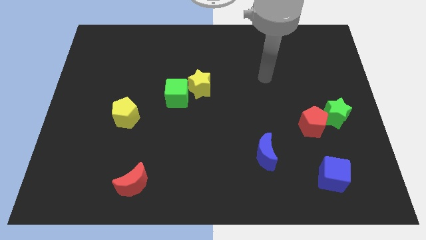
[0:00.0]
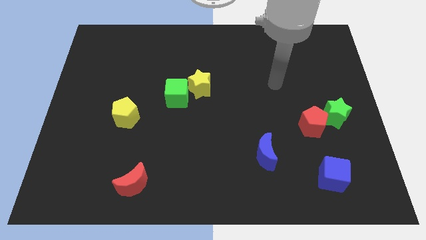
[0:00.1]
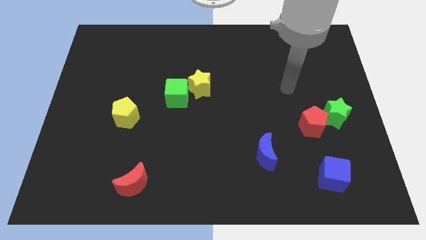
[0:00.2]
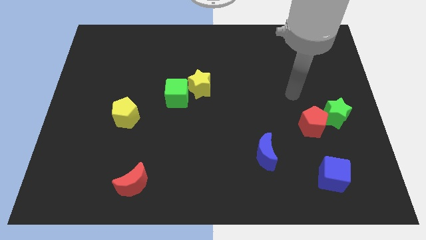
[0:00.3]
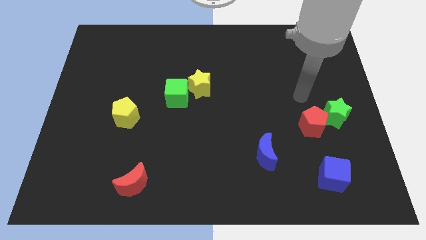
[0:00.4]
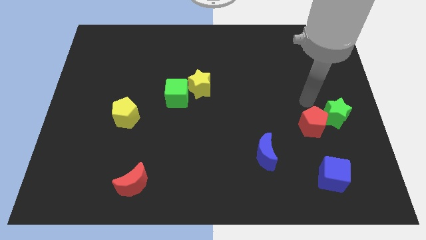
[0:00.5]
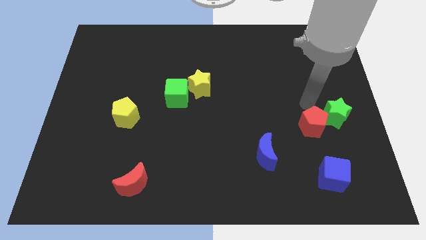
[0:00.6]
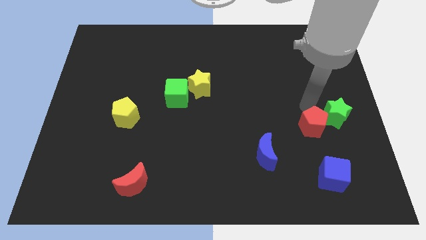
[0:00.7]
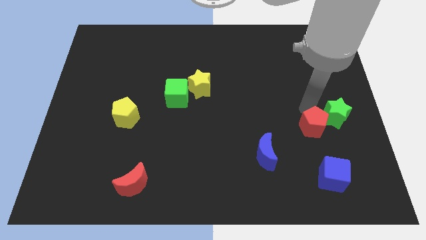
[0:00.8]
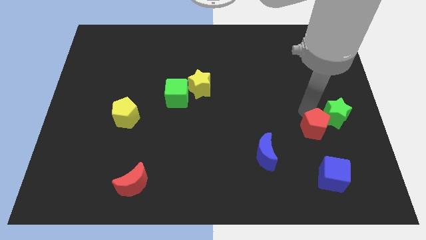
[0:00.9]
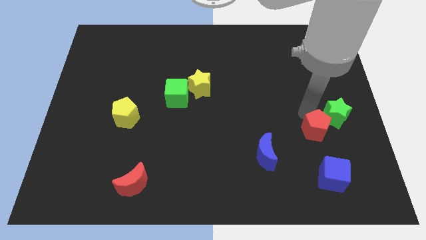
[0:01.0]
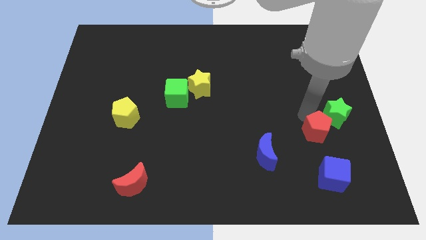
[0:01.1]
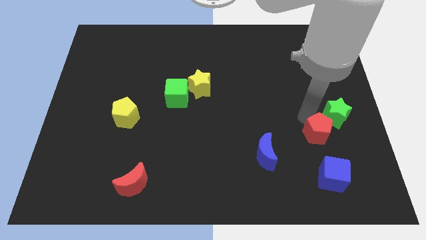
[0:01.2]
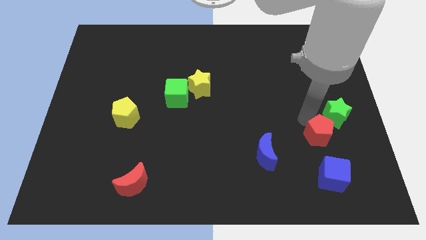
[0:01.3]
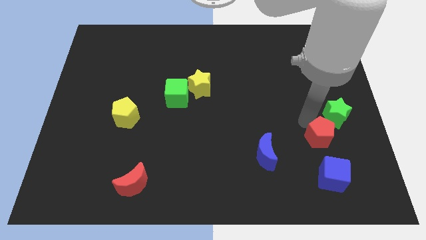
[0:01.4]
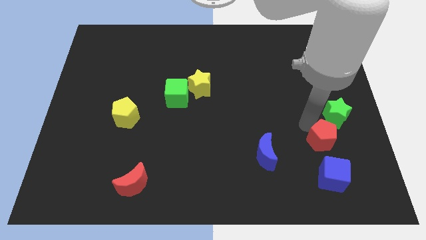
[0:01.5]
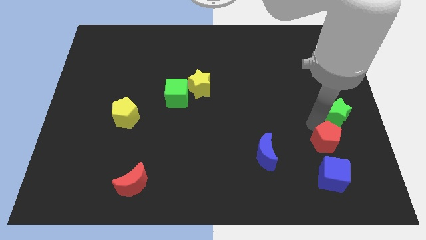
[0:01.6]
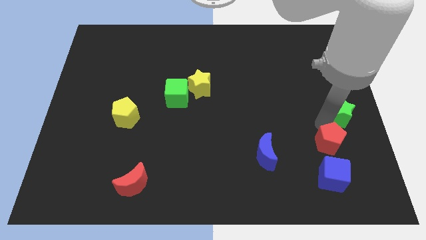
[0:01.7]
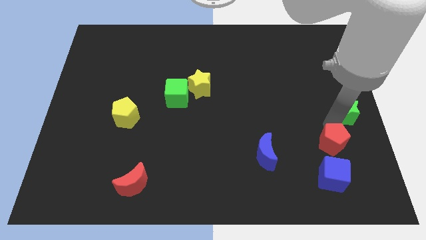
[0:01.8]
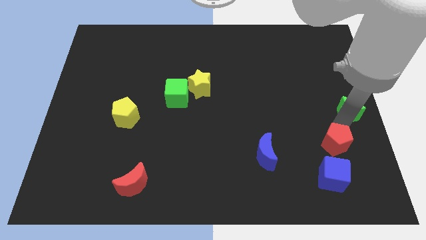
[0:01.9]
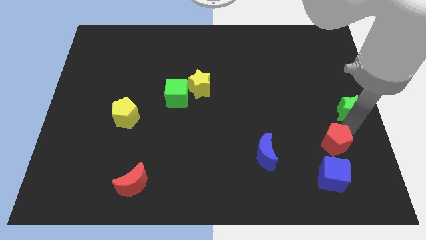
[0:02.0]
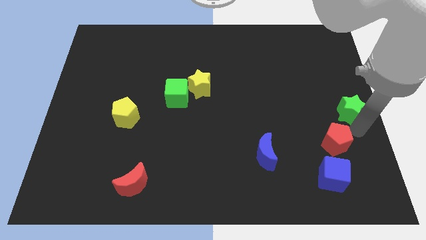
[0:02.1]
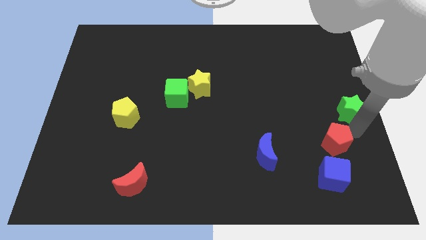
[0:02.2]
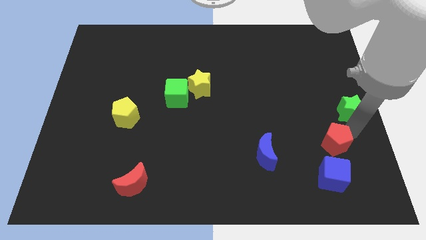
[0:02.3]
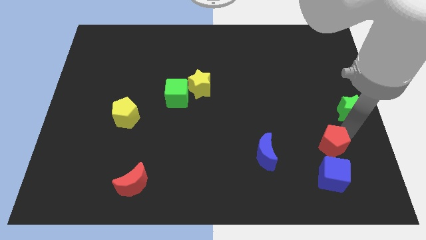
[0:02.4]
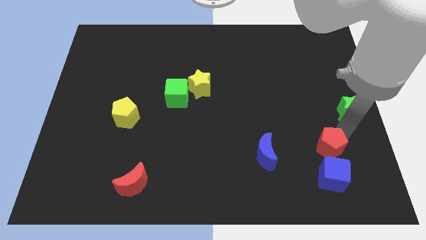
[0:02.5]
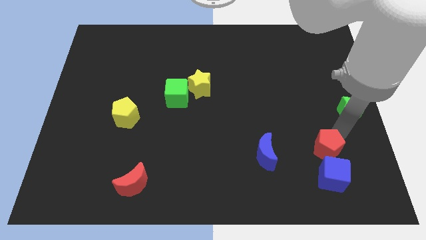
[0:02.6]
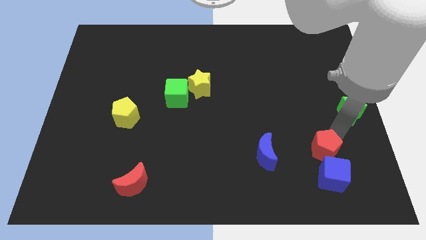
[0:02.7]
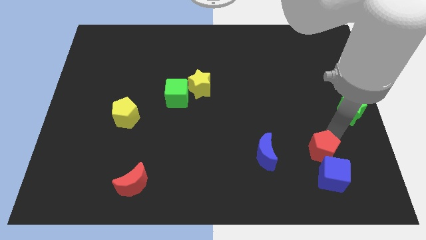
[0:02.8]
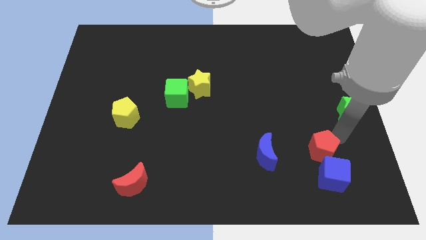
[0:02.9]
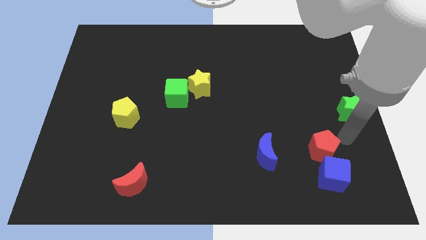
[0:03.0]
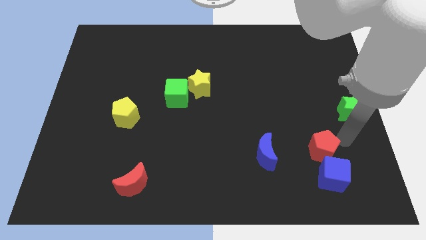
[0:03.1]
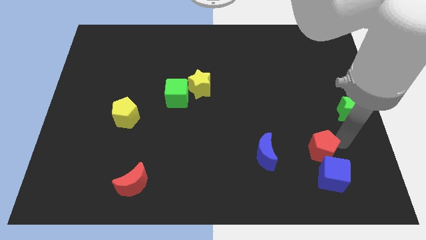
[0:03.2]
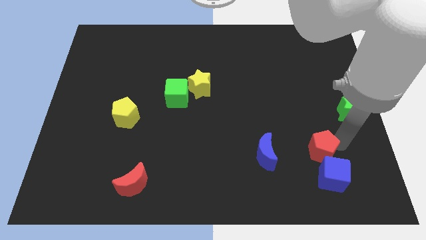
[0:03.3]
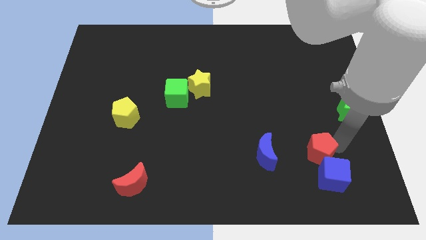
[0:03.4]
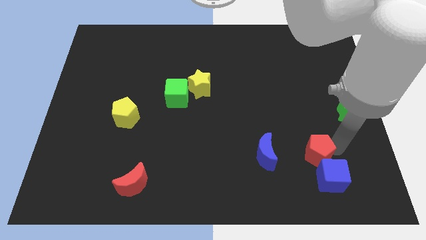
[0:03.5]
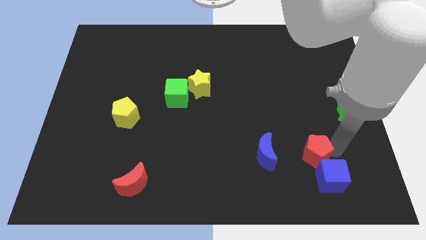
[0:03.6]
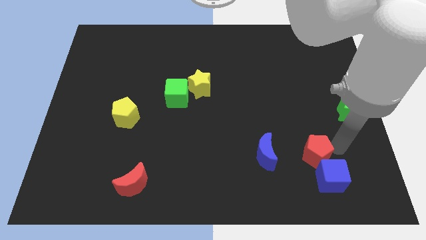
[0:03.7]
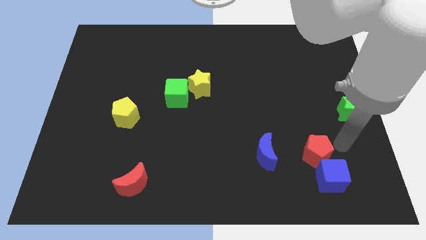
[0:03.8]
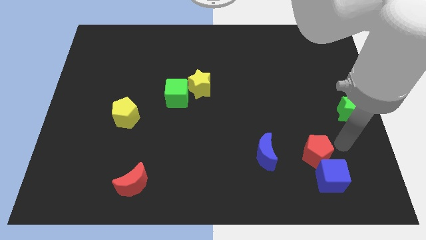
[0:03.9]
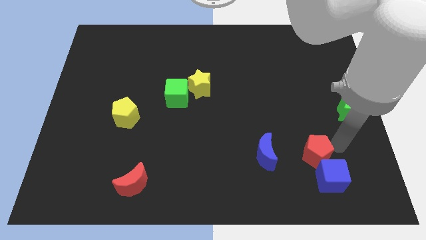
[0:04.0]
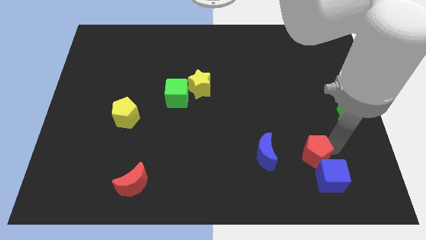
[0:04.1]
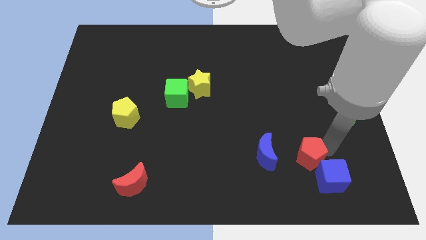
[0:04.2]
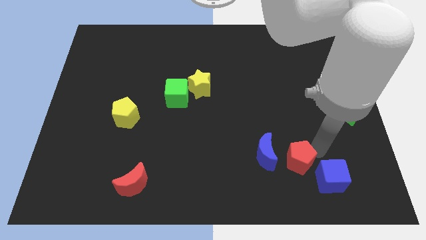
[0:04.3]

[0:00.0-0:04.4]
slightly slide the red pentagon diagonally down and left

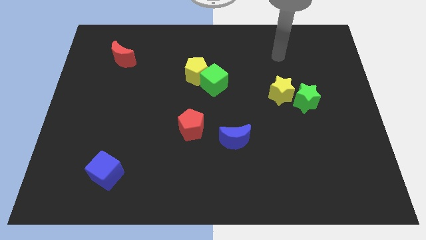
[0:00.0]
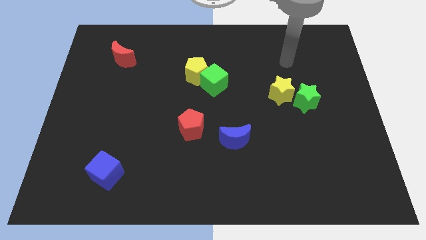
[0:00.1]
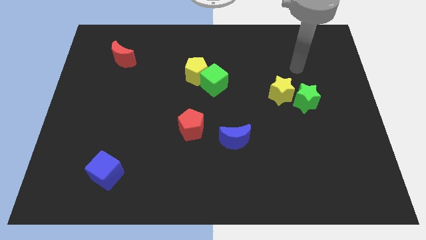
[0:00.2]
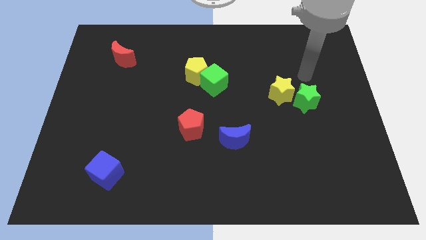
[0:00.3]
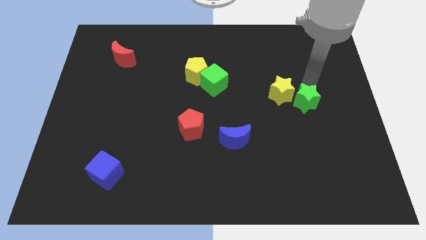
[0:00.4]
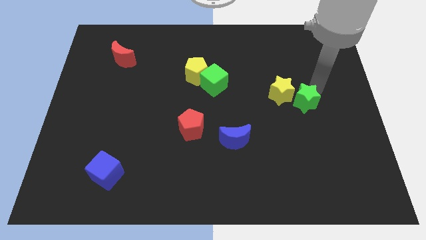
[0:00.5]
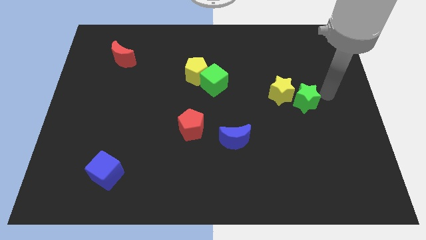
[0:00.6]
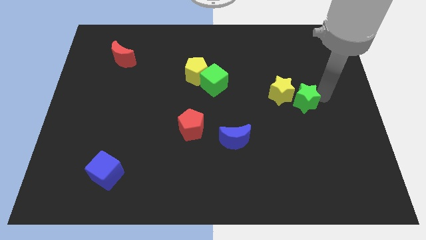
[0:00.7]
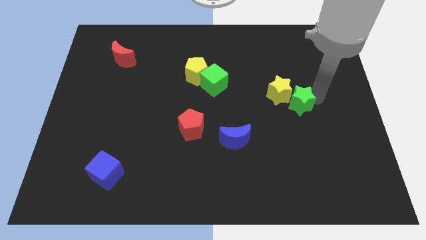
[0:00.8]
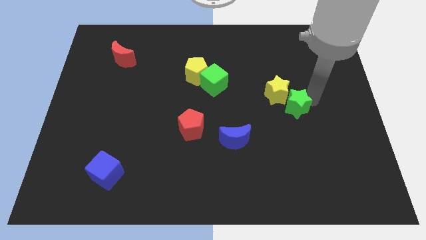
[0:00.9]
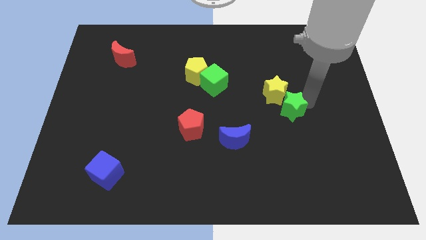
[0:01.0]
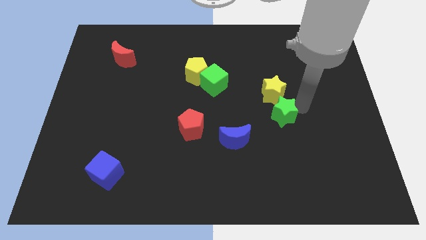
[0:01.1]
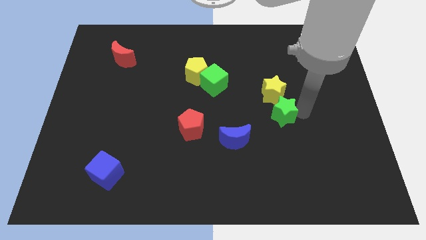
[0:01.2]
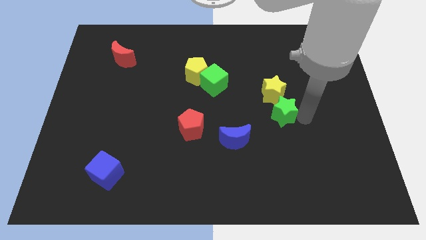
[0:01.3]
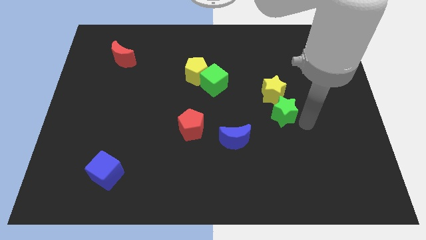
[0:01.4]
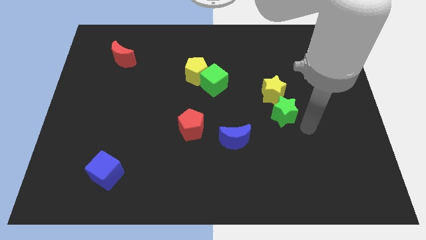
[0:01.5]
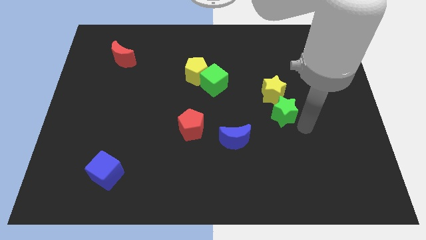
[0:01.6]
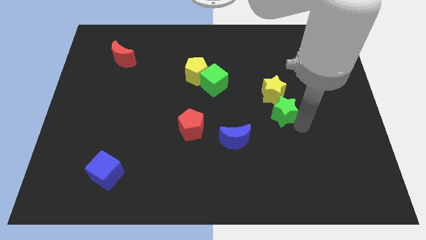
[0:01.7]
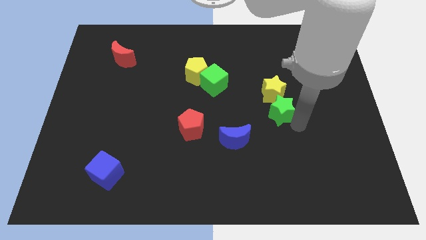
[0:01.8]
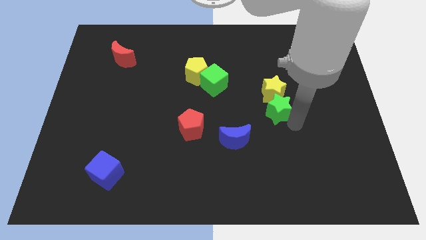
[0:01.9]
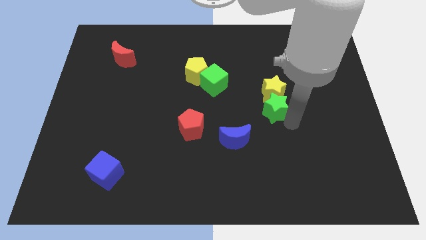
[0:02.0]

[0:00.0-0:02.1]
push the green star a bit left

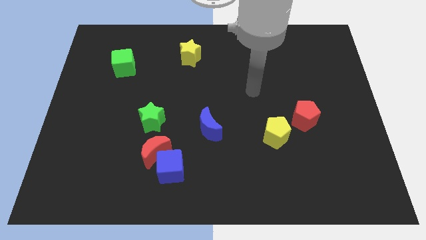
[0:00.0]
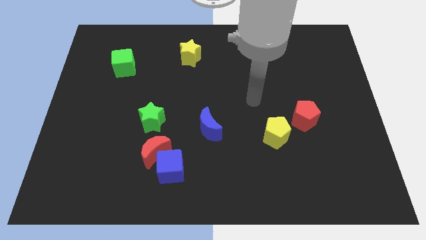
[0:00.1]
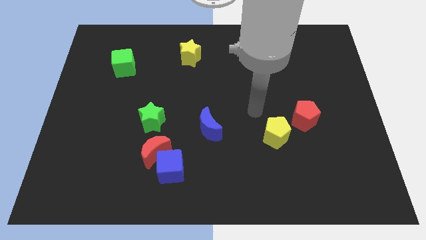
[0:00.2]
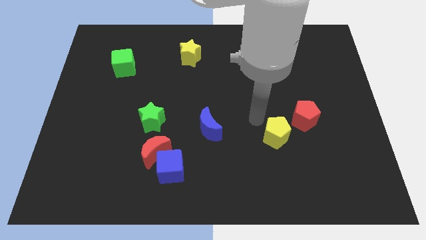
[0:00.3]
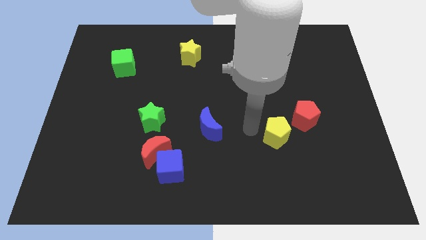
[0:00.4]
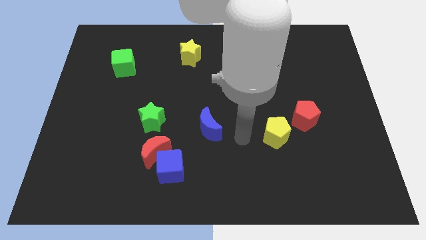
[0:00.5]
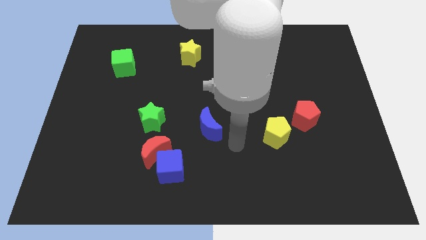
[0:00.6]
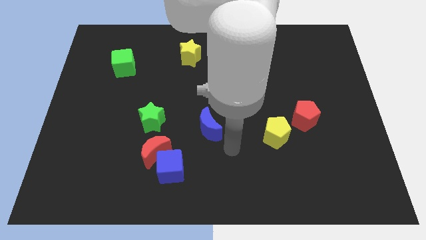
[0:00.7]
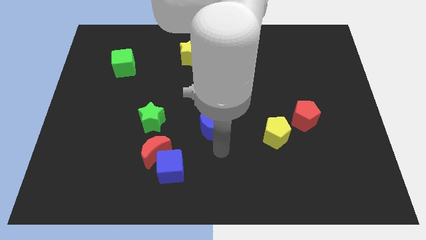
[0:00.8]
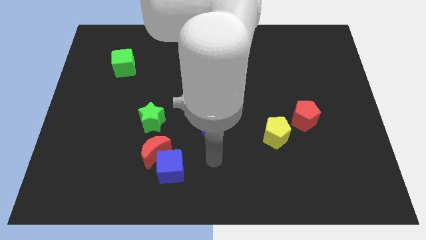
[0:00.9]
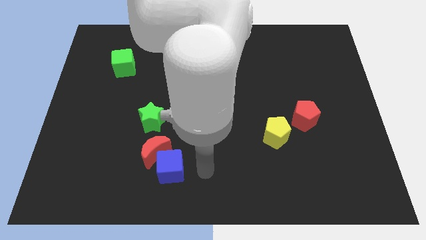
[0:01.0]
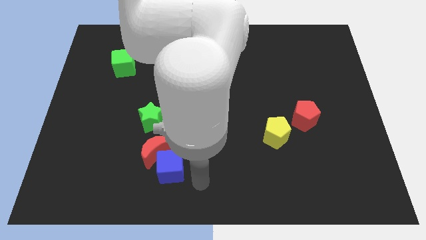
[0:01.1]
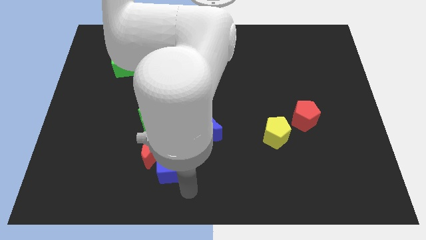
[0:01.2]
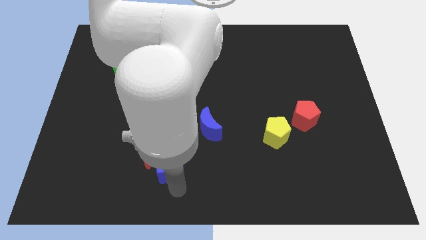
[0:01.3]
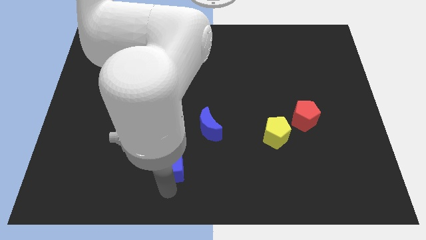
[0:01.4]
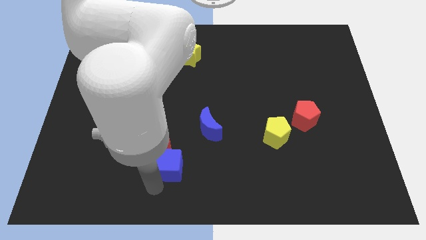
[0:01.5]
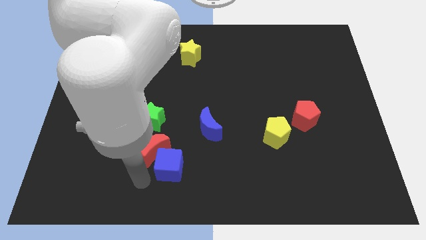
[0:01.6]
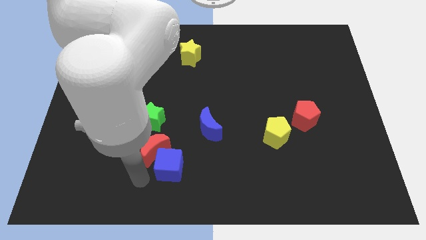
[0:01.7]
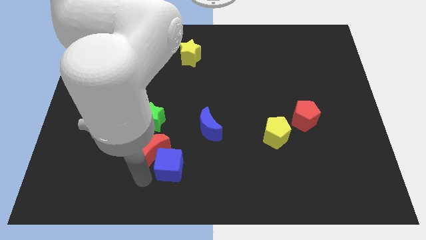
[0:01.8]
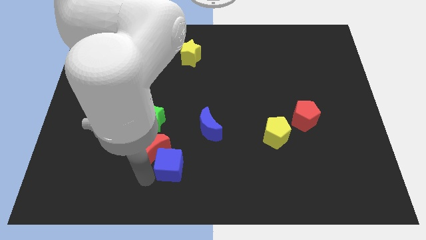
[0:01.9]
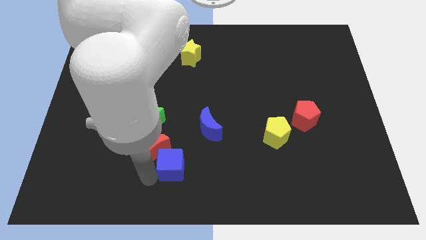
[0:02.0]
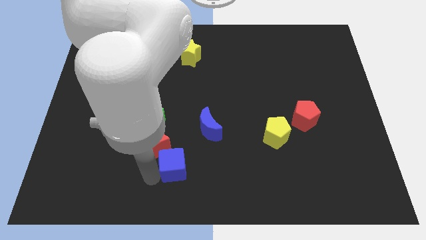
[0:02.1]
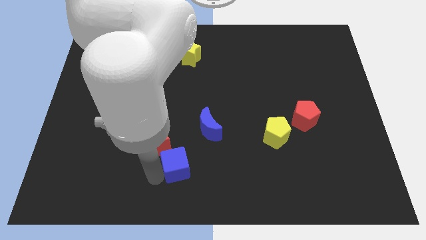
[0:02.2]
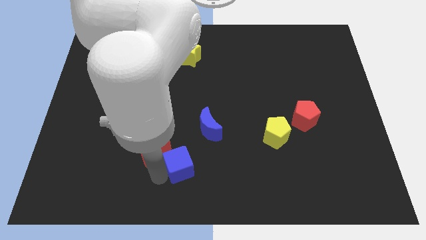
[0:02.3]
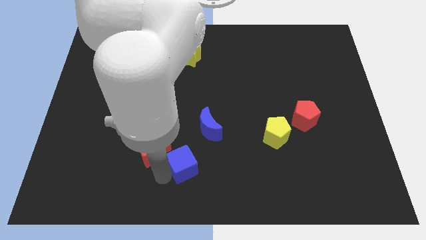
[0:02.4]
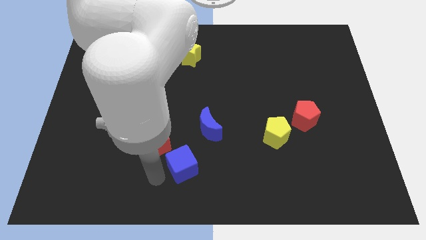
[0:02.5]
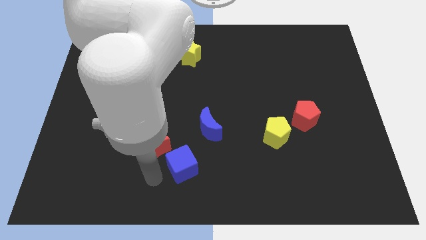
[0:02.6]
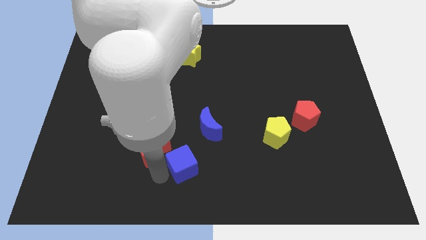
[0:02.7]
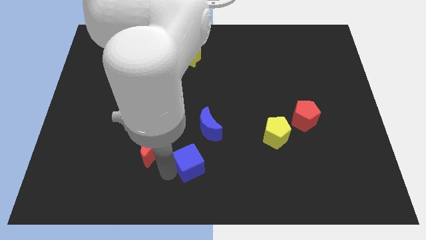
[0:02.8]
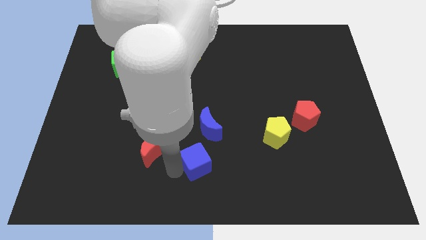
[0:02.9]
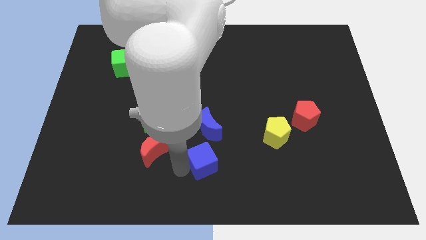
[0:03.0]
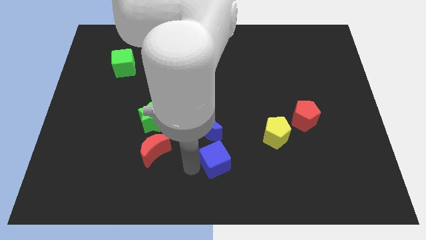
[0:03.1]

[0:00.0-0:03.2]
push the blue cube a little diagonally upwards and to the right
